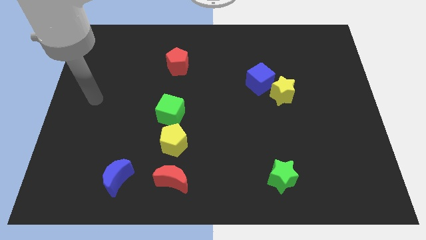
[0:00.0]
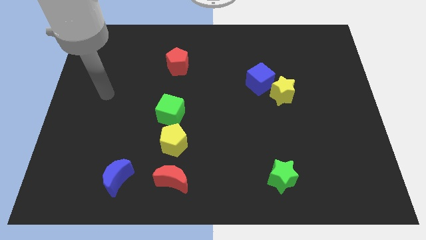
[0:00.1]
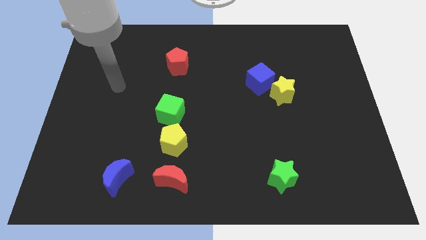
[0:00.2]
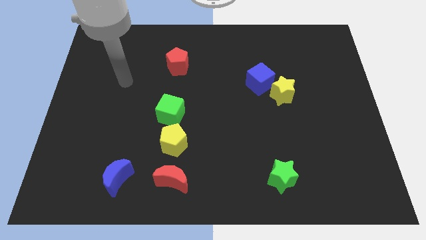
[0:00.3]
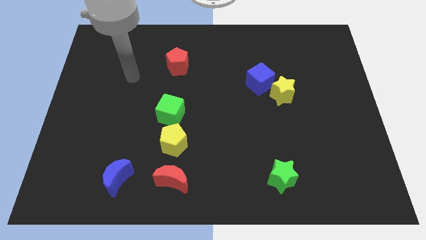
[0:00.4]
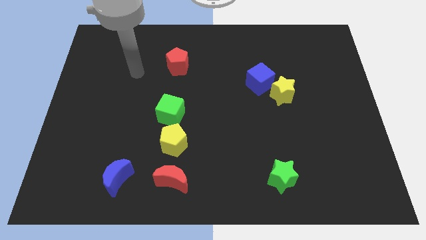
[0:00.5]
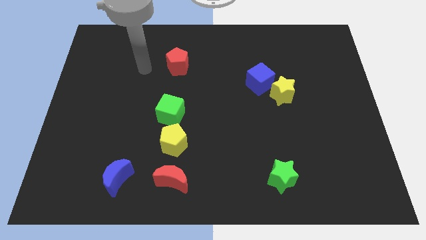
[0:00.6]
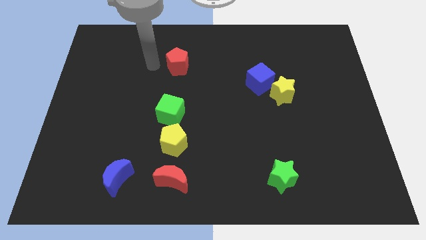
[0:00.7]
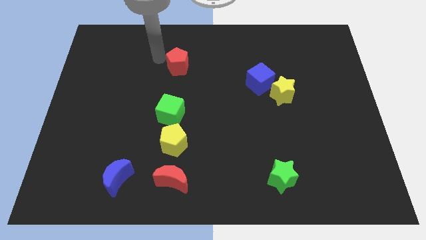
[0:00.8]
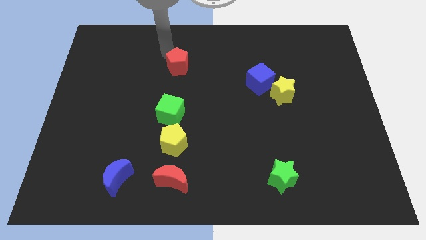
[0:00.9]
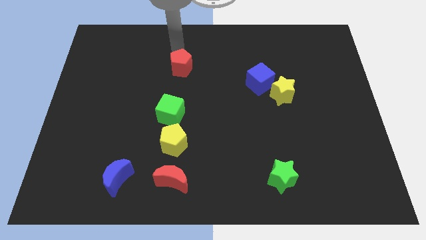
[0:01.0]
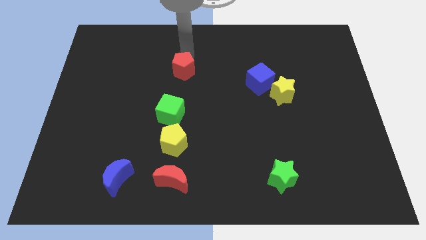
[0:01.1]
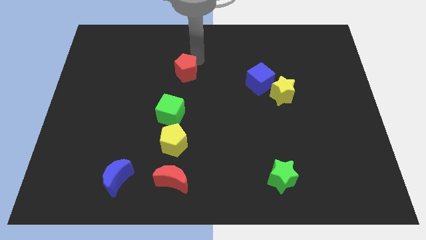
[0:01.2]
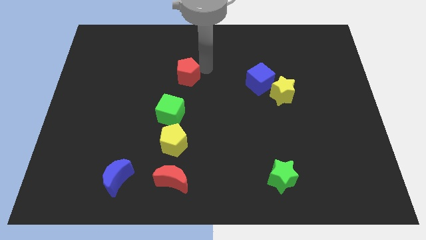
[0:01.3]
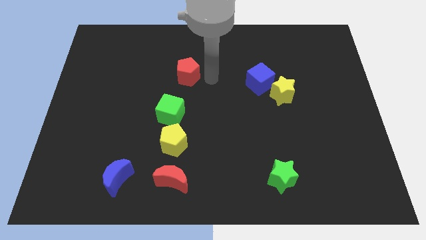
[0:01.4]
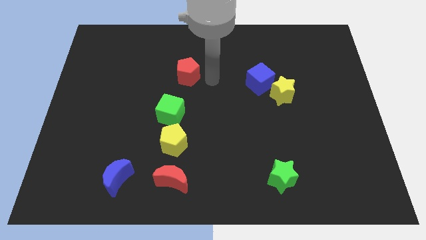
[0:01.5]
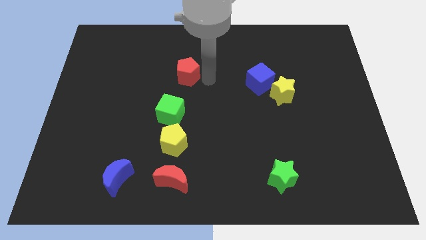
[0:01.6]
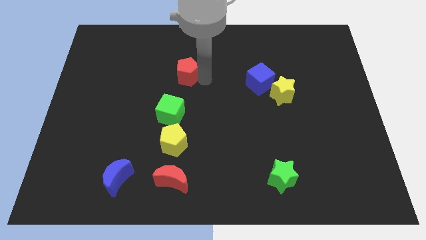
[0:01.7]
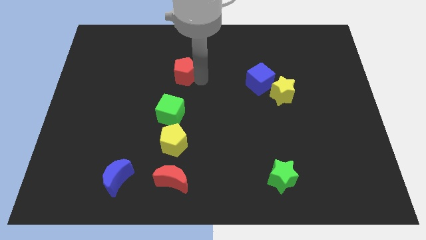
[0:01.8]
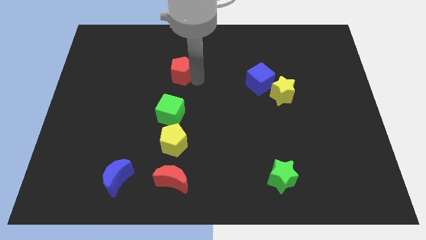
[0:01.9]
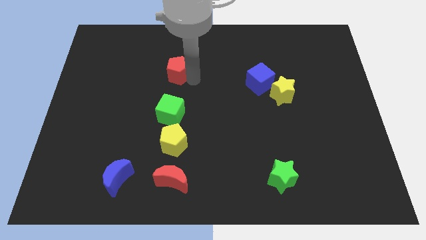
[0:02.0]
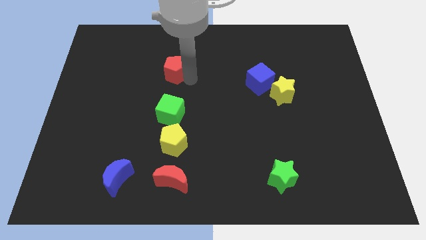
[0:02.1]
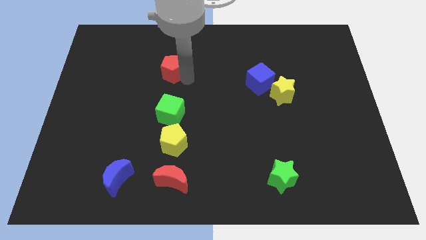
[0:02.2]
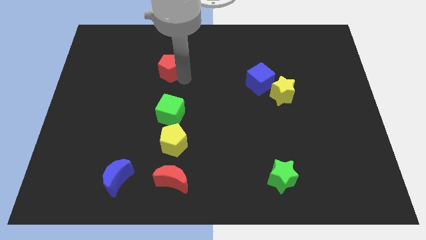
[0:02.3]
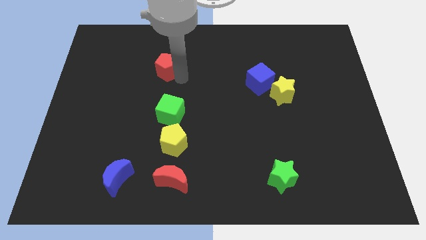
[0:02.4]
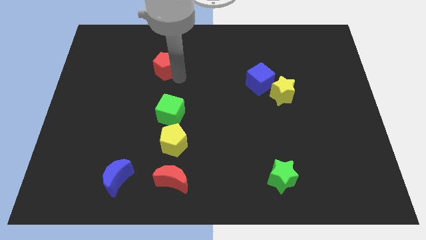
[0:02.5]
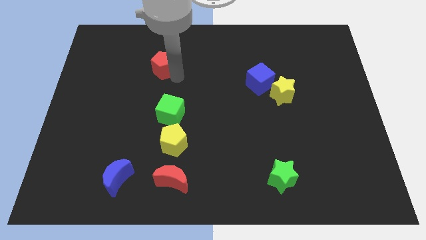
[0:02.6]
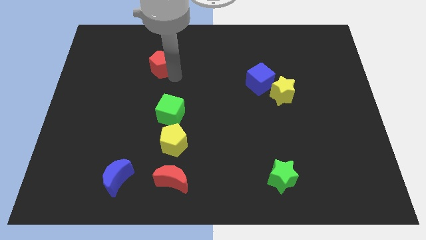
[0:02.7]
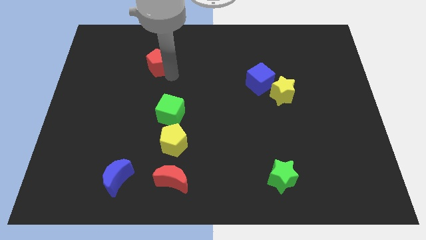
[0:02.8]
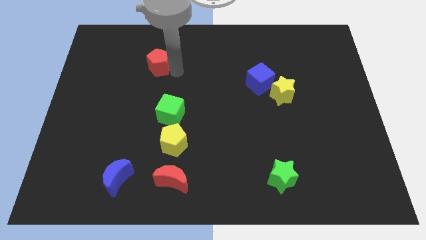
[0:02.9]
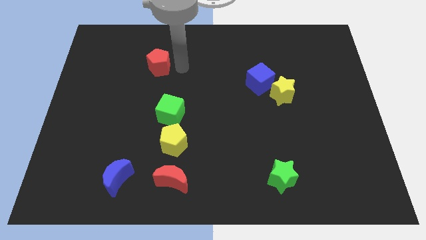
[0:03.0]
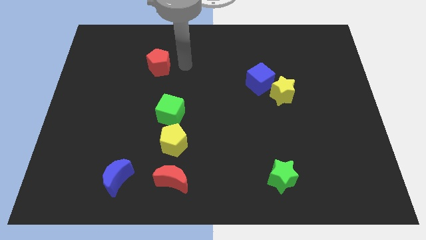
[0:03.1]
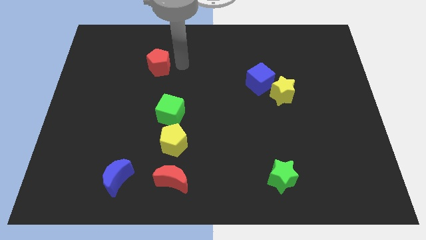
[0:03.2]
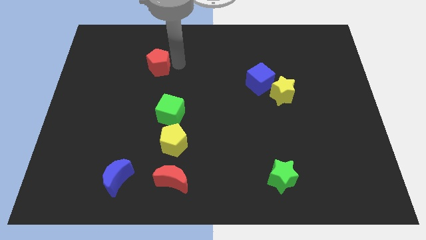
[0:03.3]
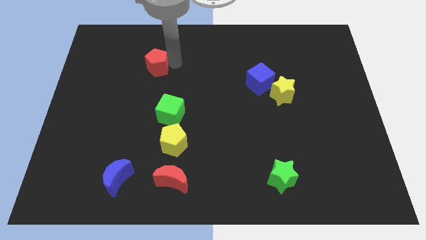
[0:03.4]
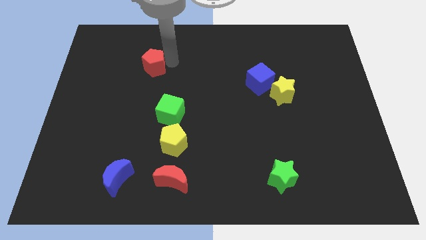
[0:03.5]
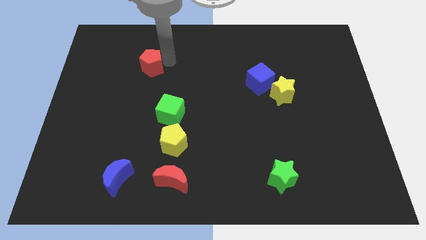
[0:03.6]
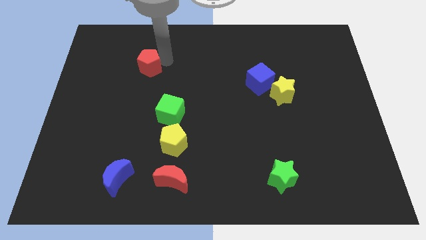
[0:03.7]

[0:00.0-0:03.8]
move the red pentagon somewhat left

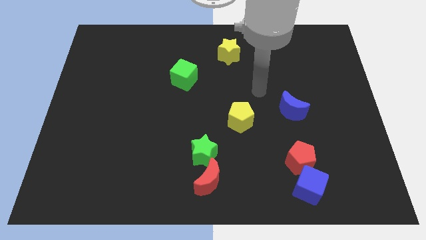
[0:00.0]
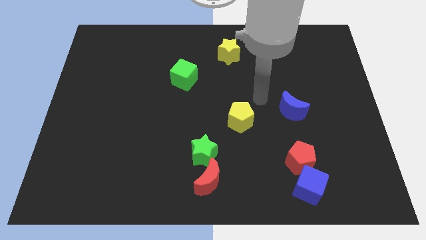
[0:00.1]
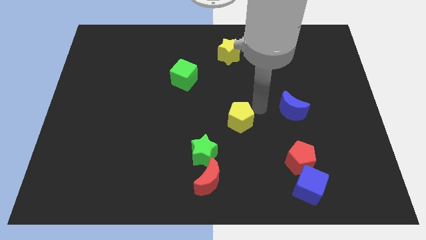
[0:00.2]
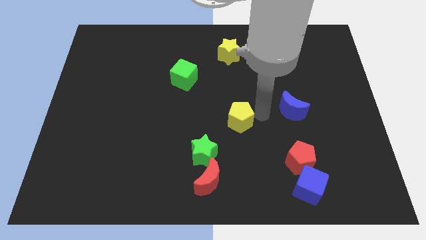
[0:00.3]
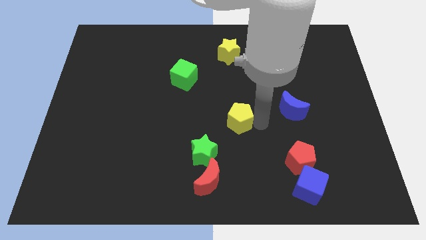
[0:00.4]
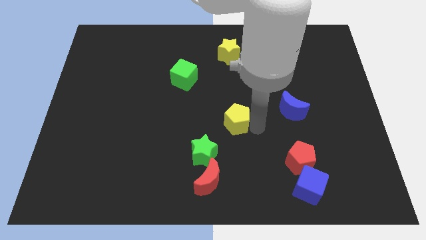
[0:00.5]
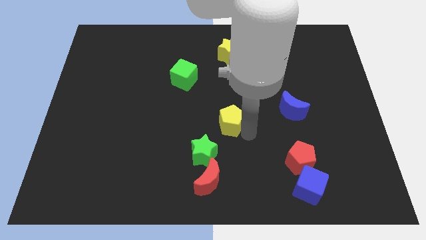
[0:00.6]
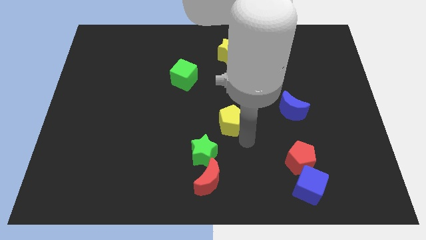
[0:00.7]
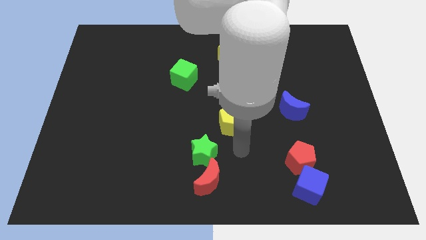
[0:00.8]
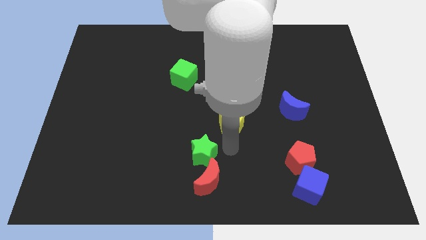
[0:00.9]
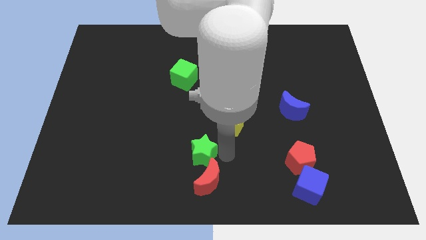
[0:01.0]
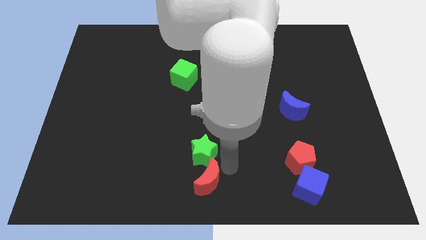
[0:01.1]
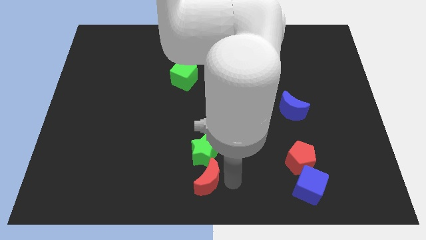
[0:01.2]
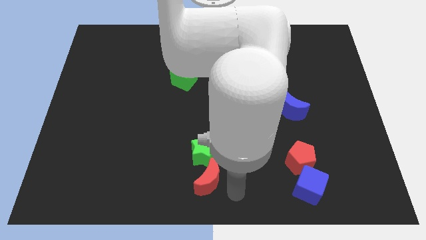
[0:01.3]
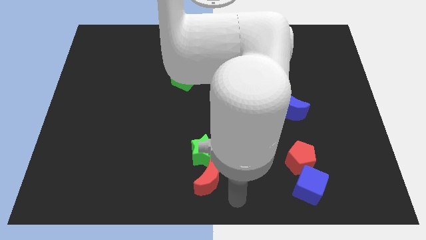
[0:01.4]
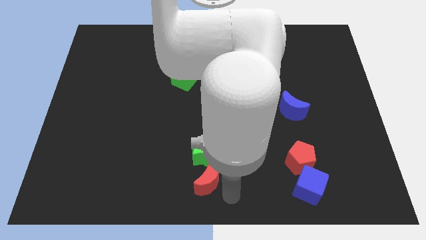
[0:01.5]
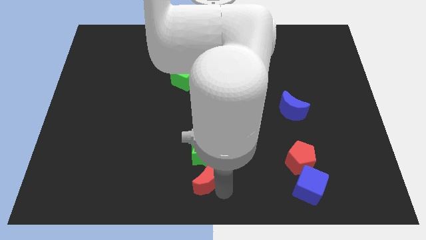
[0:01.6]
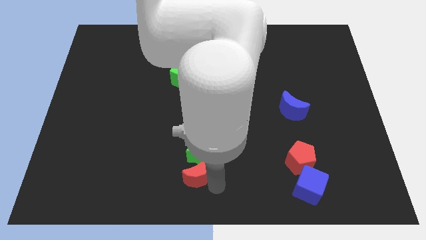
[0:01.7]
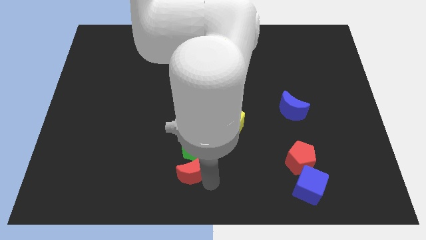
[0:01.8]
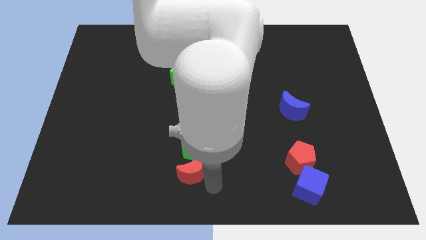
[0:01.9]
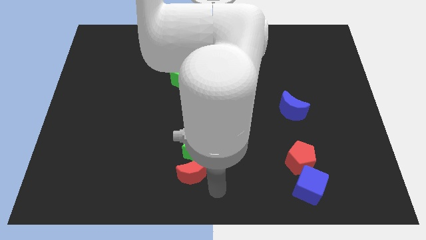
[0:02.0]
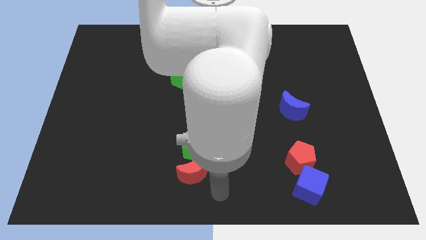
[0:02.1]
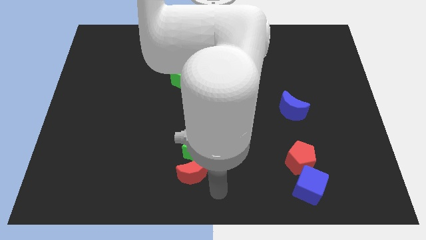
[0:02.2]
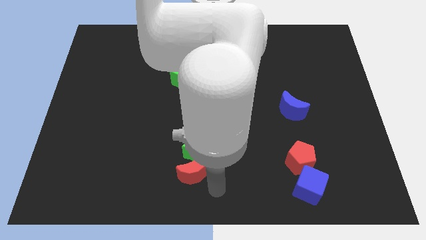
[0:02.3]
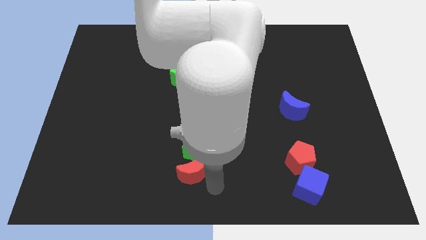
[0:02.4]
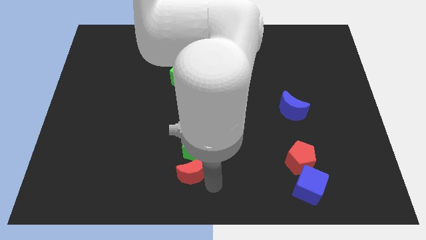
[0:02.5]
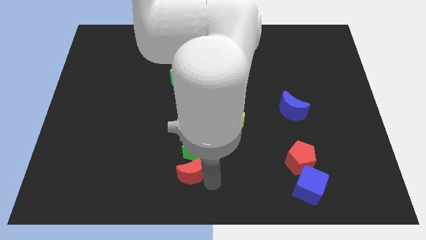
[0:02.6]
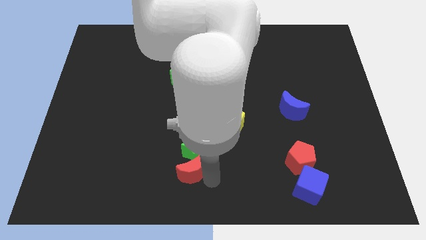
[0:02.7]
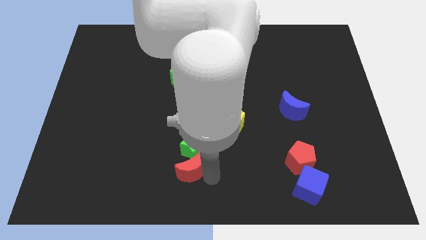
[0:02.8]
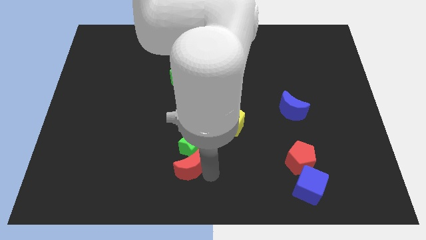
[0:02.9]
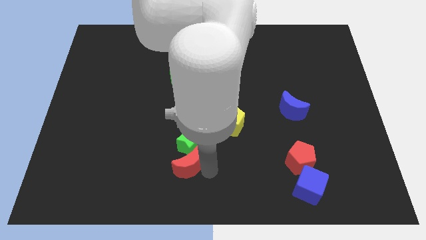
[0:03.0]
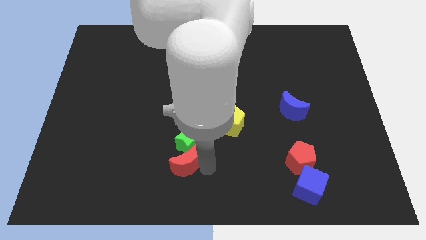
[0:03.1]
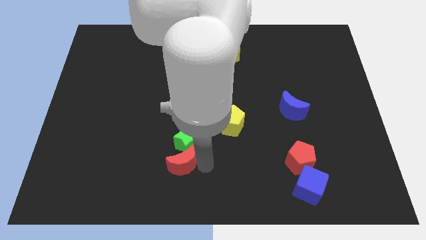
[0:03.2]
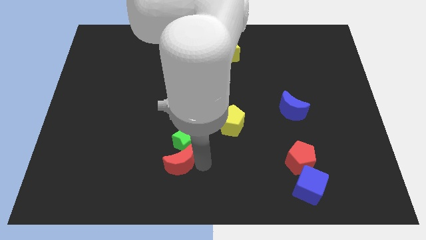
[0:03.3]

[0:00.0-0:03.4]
move the red moon upwards and to the left a little

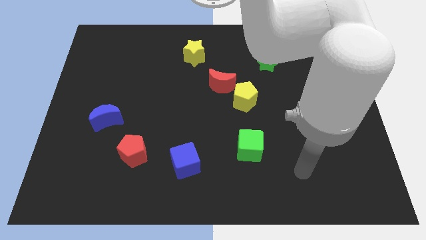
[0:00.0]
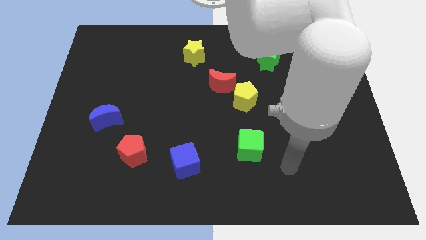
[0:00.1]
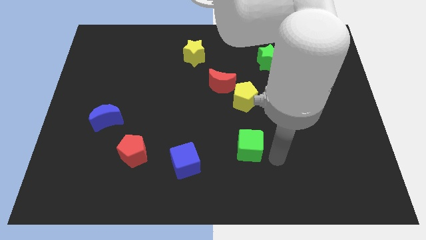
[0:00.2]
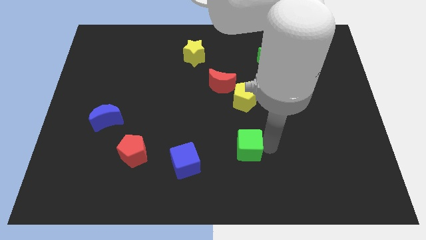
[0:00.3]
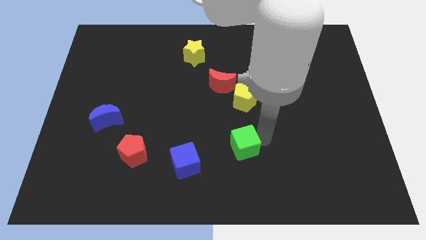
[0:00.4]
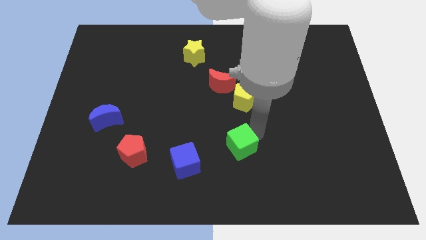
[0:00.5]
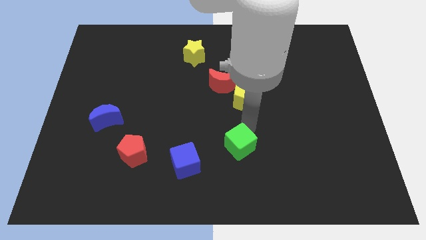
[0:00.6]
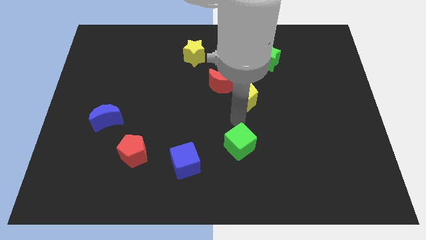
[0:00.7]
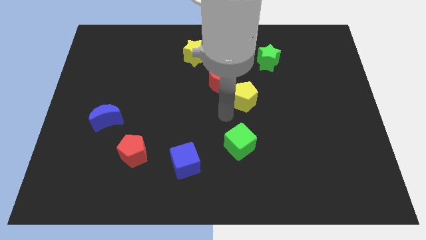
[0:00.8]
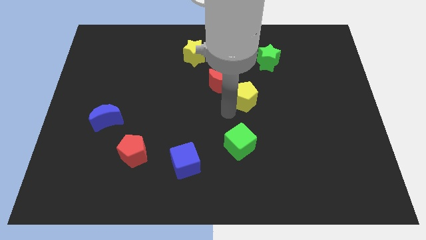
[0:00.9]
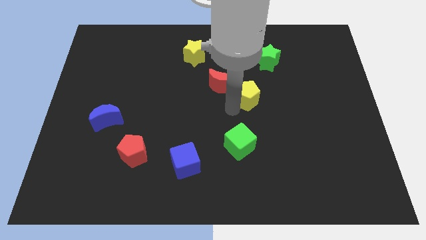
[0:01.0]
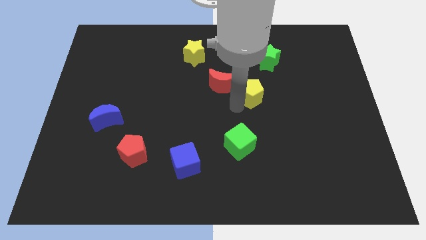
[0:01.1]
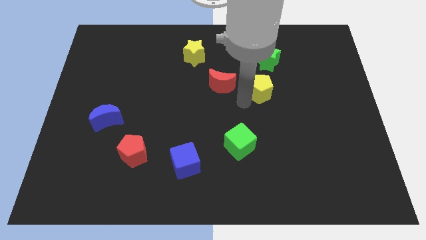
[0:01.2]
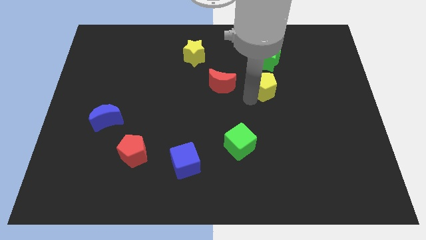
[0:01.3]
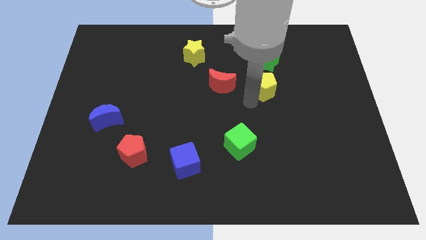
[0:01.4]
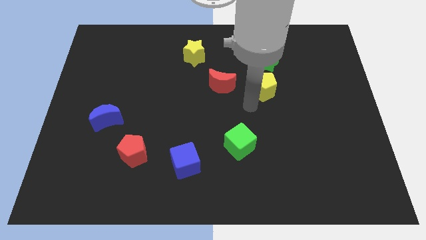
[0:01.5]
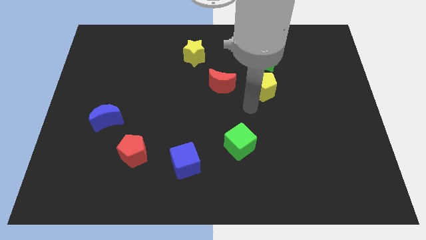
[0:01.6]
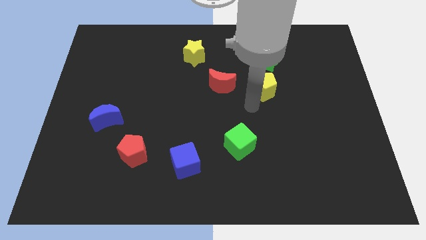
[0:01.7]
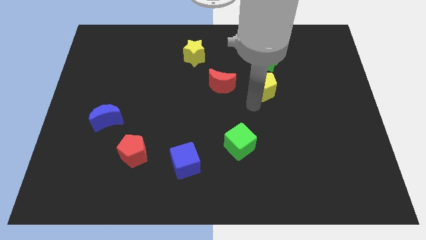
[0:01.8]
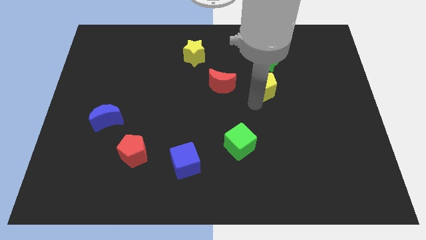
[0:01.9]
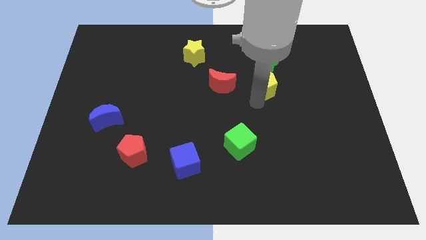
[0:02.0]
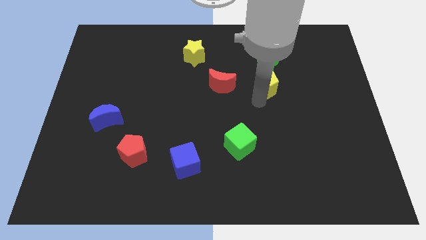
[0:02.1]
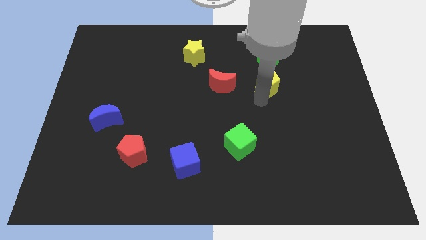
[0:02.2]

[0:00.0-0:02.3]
slide the yellow pentagon upwards and then right slightly
